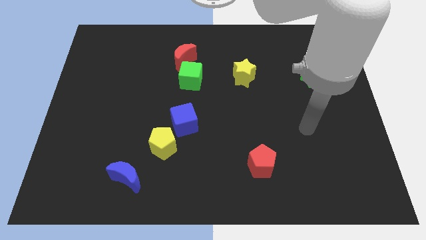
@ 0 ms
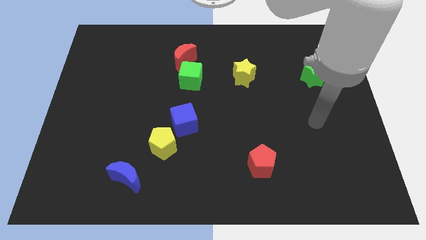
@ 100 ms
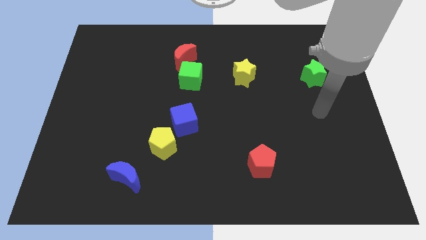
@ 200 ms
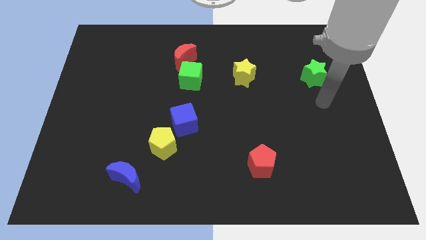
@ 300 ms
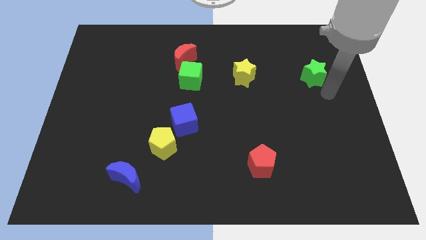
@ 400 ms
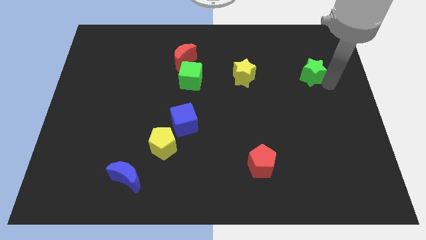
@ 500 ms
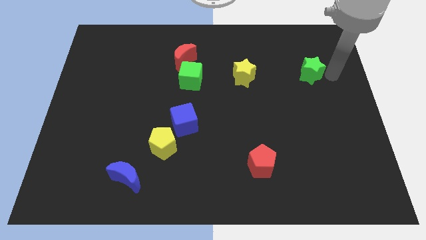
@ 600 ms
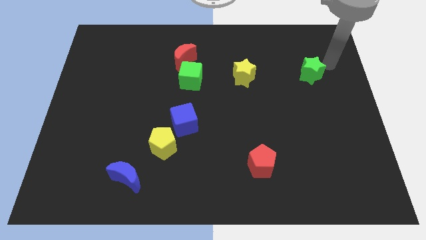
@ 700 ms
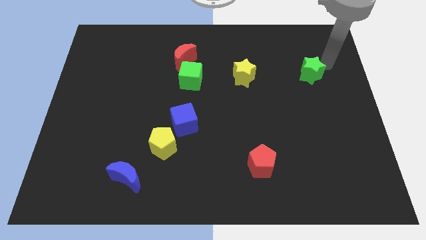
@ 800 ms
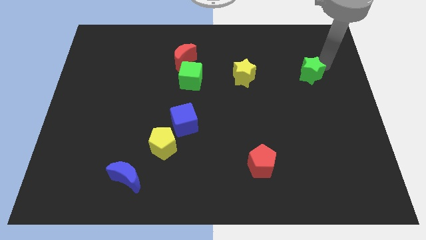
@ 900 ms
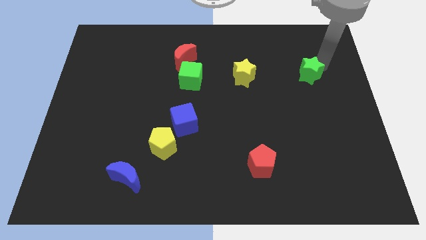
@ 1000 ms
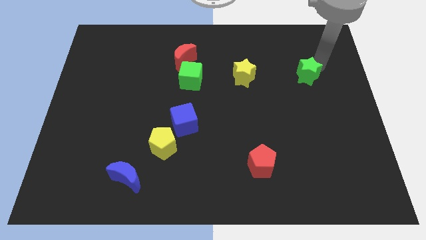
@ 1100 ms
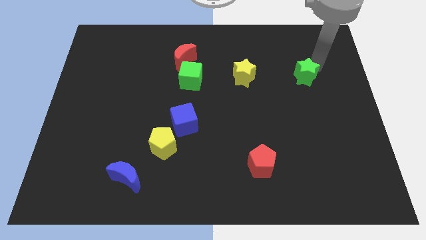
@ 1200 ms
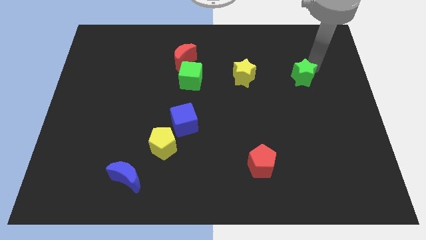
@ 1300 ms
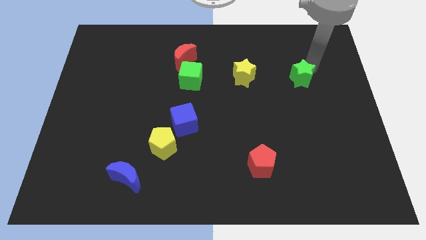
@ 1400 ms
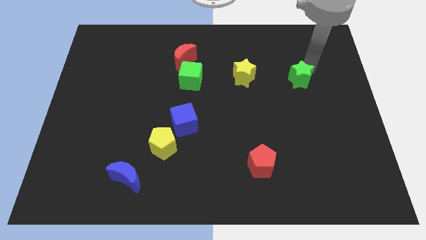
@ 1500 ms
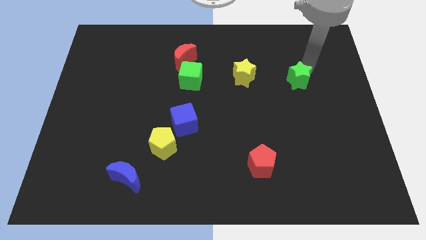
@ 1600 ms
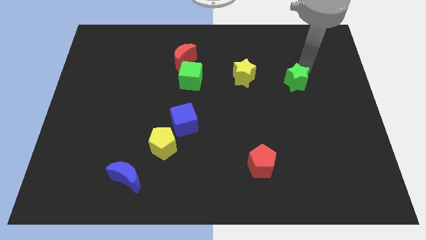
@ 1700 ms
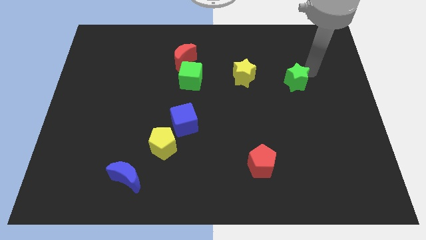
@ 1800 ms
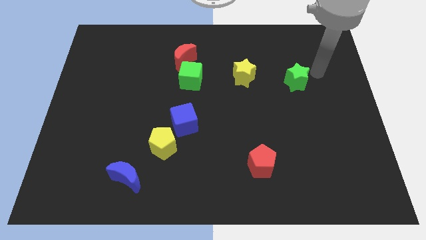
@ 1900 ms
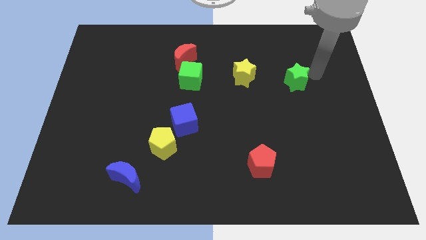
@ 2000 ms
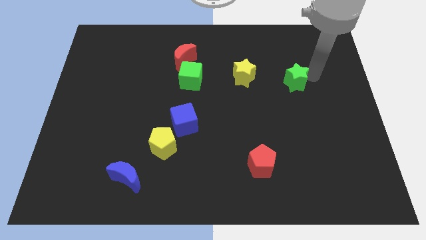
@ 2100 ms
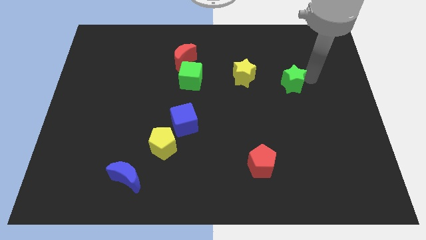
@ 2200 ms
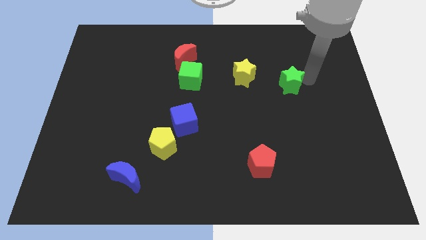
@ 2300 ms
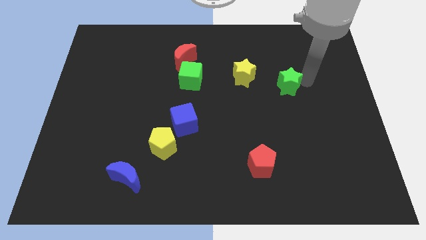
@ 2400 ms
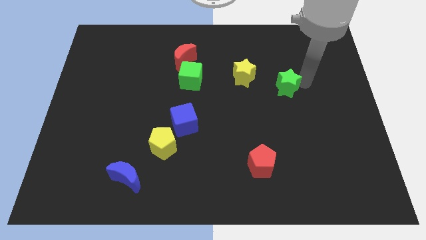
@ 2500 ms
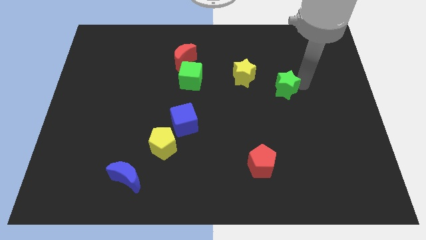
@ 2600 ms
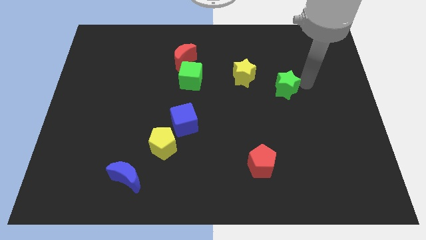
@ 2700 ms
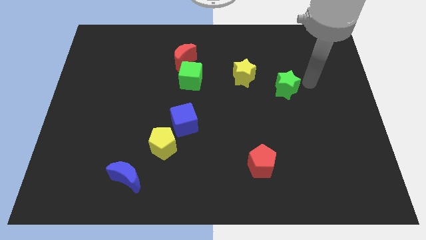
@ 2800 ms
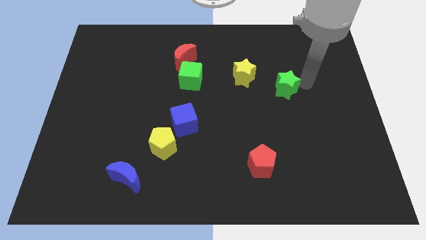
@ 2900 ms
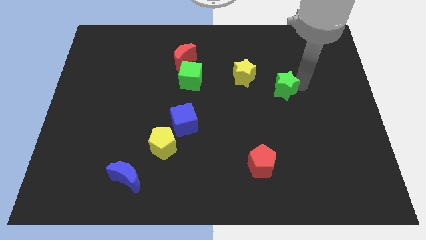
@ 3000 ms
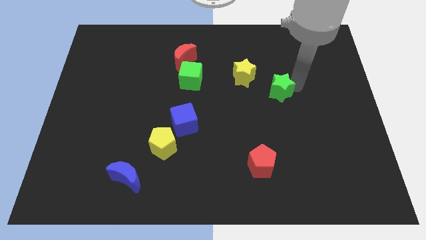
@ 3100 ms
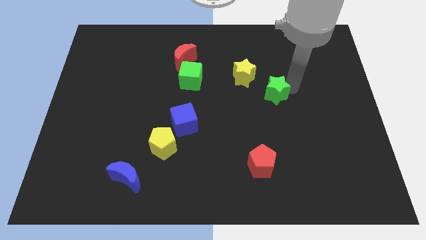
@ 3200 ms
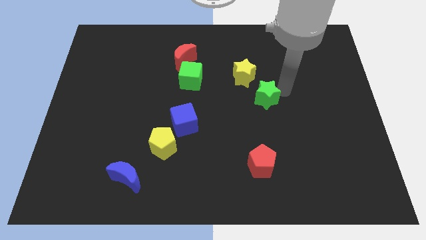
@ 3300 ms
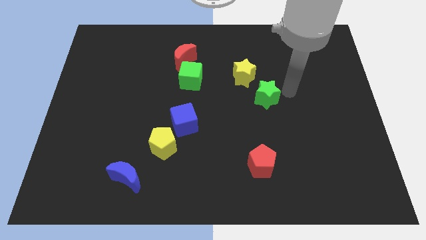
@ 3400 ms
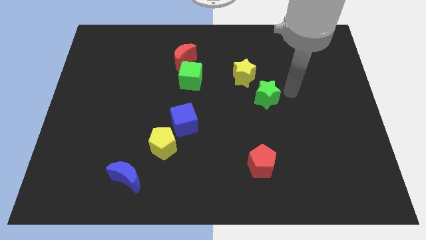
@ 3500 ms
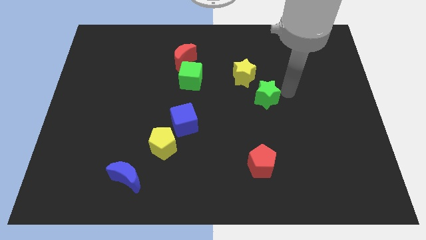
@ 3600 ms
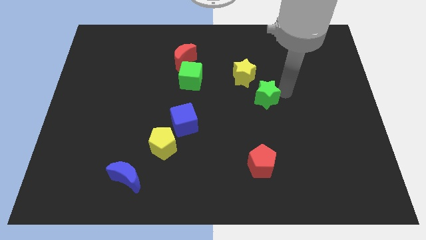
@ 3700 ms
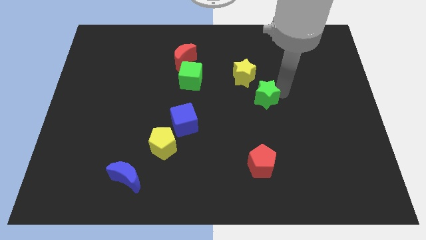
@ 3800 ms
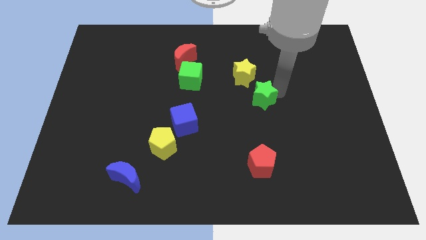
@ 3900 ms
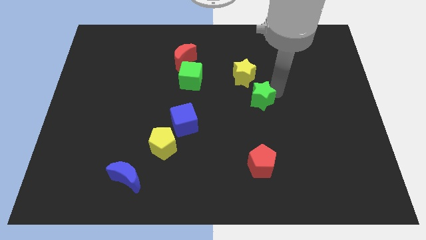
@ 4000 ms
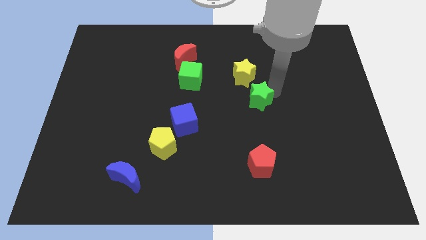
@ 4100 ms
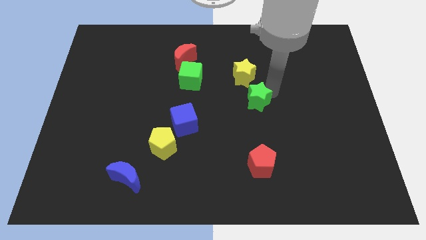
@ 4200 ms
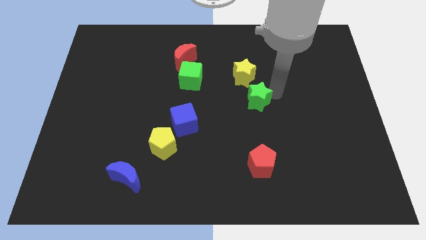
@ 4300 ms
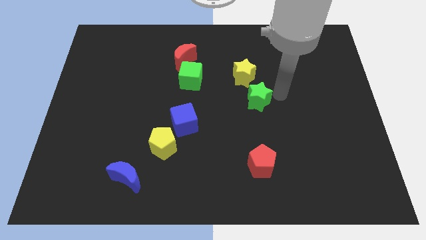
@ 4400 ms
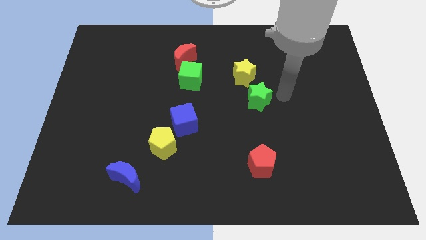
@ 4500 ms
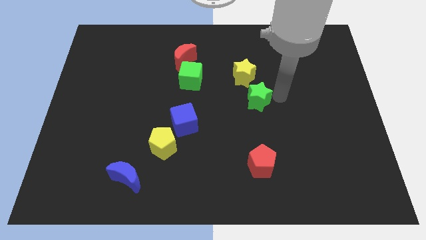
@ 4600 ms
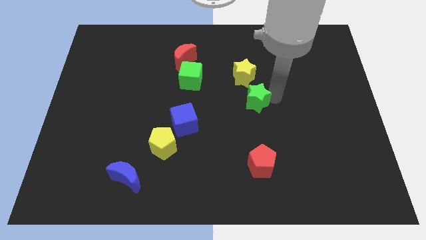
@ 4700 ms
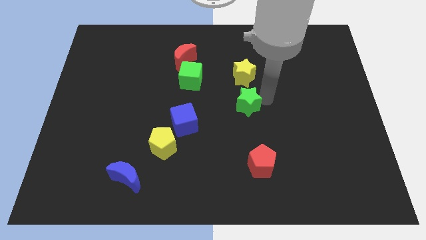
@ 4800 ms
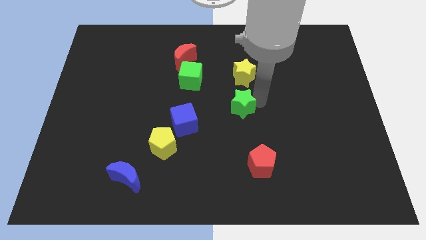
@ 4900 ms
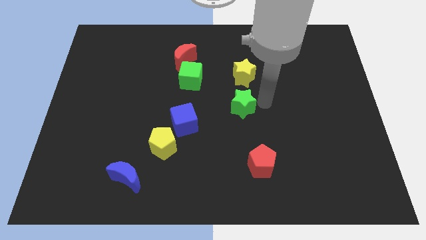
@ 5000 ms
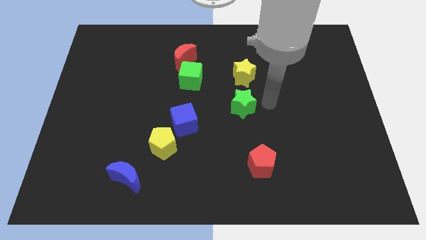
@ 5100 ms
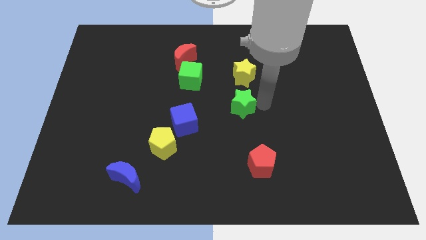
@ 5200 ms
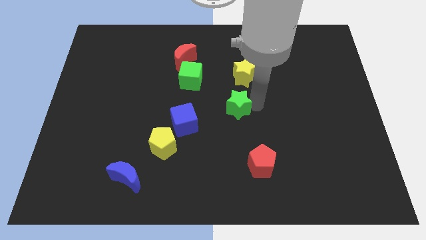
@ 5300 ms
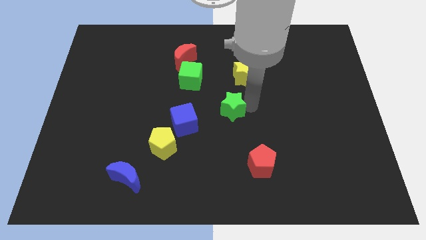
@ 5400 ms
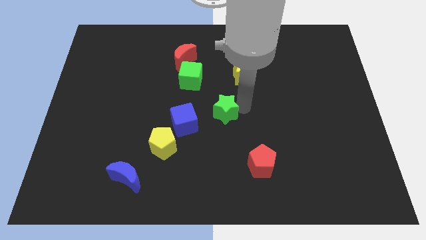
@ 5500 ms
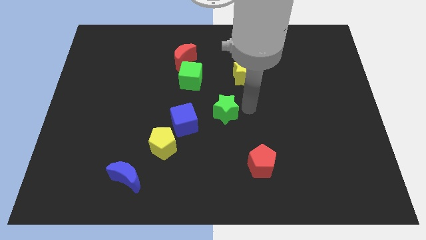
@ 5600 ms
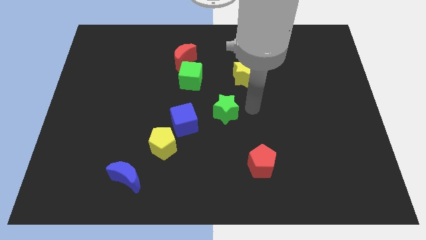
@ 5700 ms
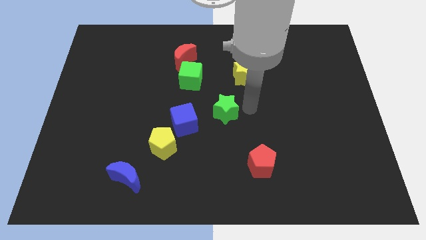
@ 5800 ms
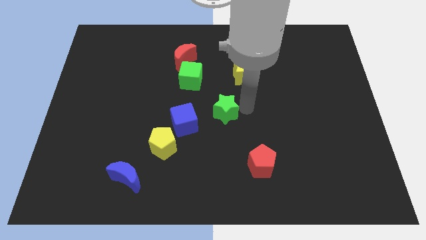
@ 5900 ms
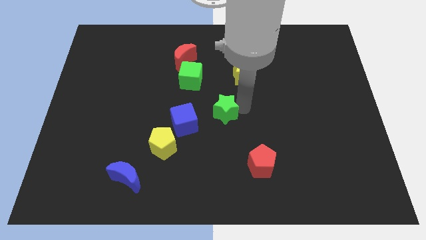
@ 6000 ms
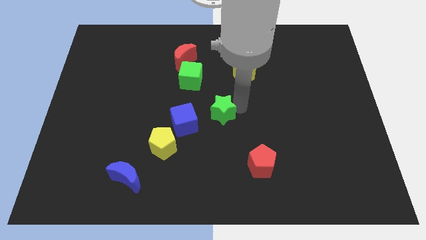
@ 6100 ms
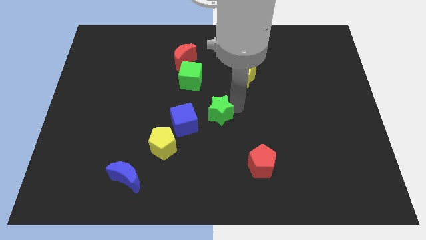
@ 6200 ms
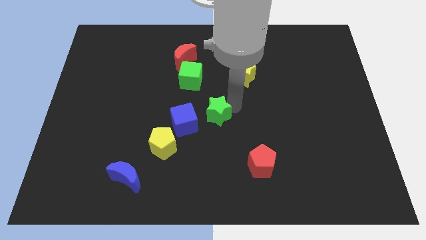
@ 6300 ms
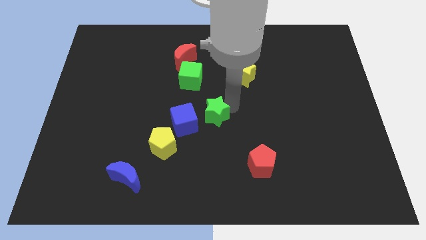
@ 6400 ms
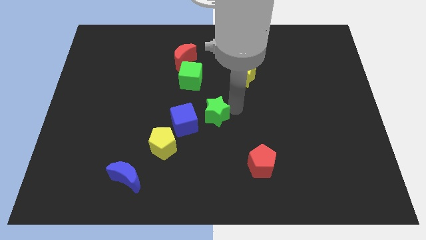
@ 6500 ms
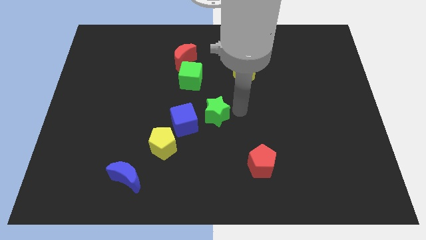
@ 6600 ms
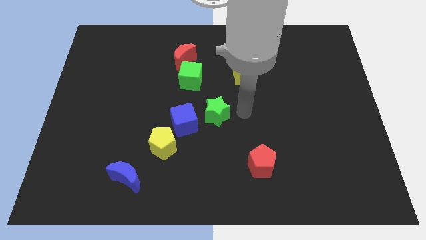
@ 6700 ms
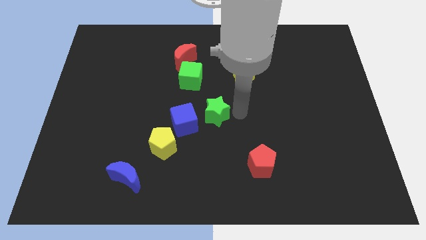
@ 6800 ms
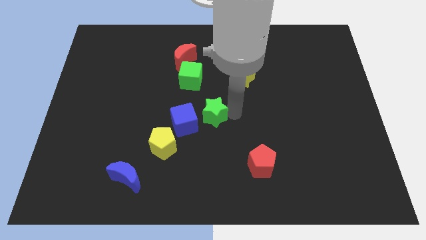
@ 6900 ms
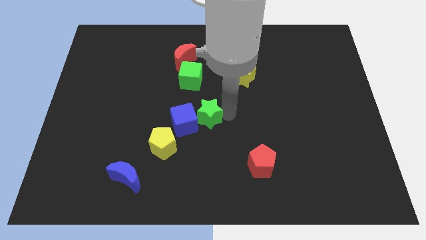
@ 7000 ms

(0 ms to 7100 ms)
push the green star to the top right side of the yellow pentagon

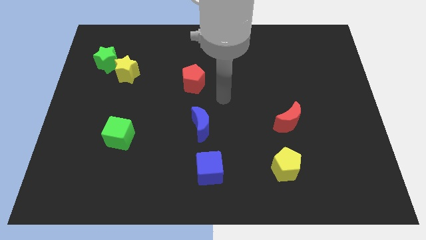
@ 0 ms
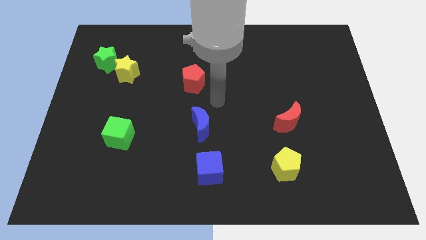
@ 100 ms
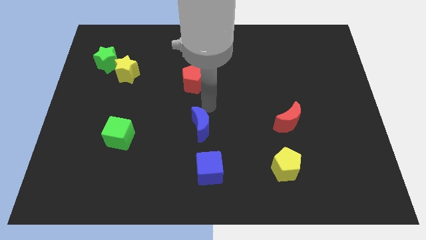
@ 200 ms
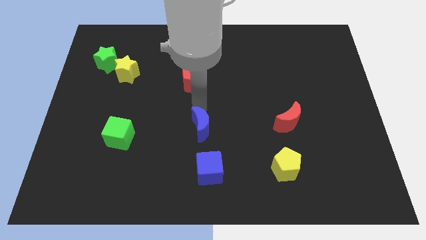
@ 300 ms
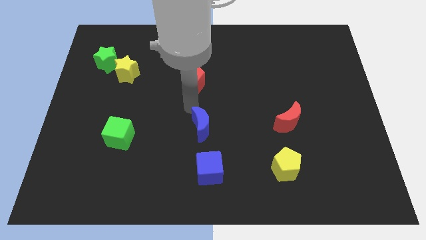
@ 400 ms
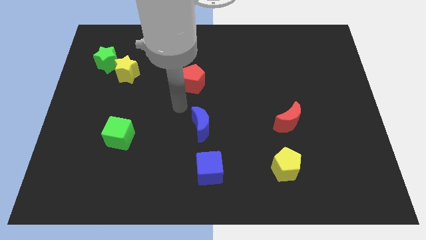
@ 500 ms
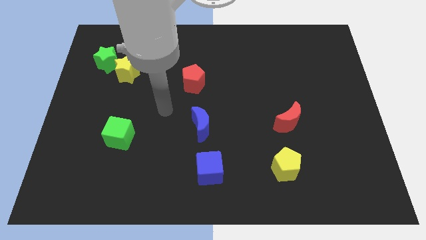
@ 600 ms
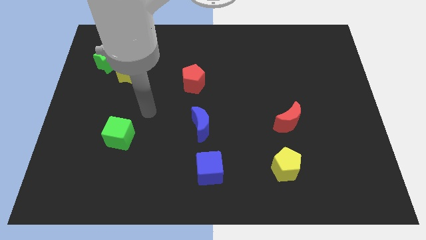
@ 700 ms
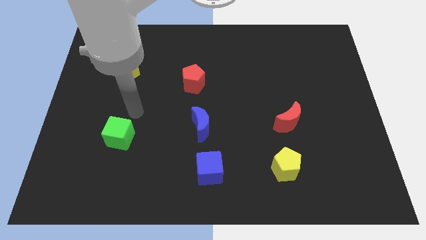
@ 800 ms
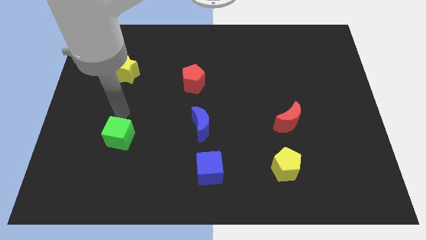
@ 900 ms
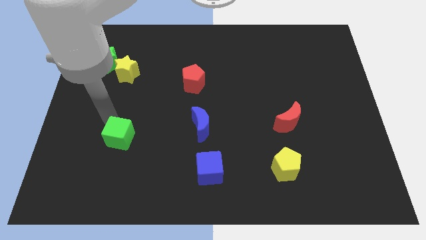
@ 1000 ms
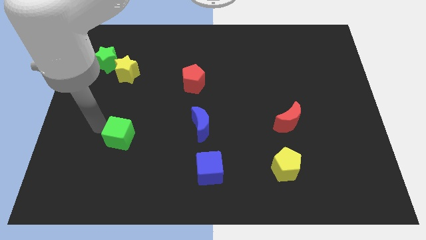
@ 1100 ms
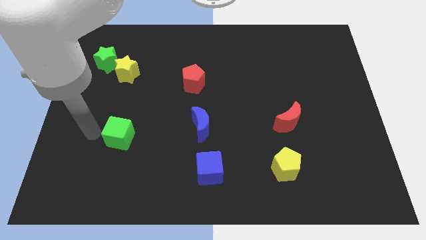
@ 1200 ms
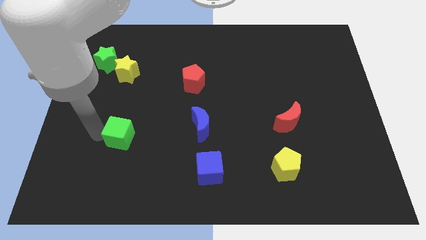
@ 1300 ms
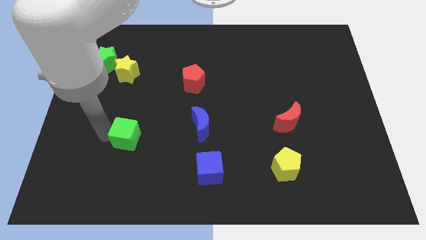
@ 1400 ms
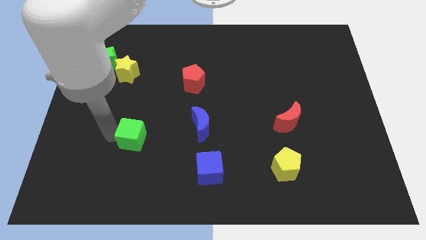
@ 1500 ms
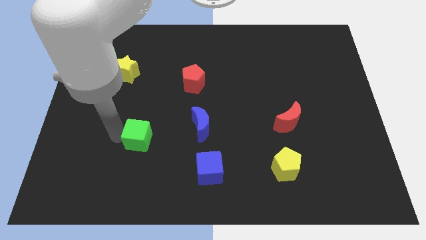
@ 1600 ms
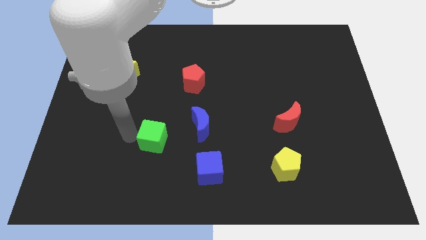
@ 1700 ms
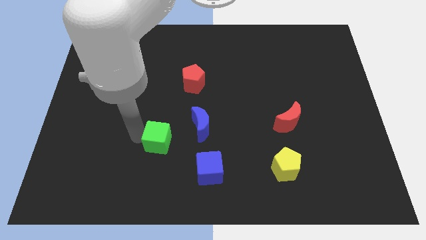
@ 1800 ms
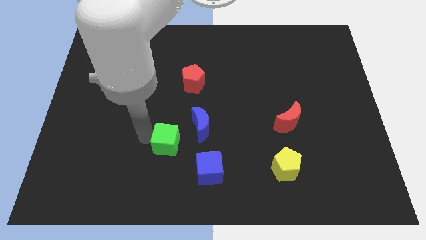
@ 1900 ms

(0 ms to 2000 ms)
push the green cube to the top left of the blue cube
